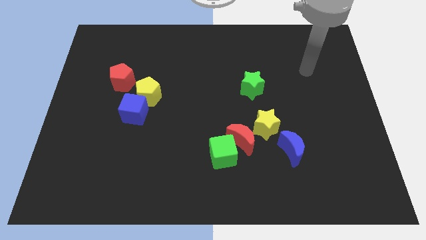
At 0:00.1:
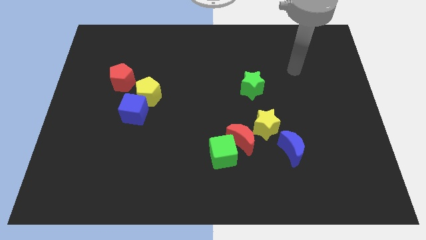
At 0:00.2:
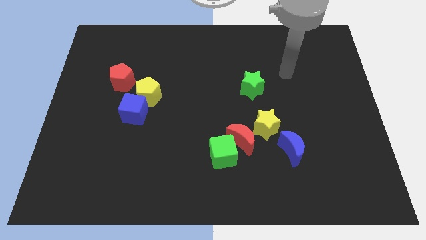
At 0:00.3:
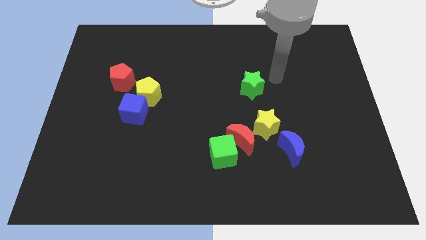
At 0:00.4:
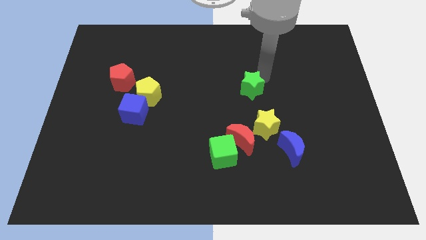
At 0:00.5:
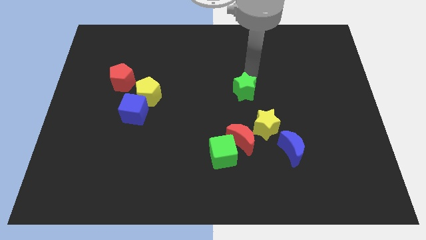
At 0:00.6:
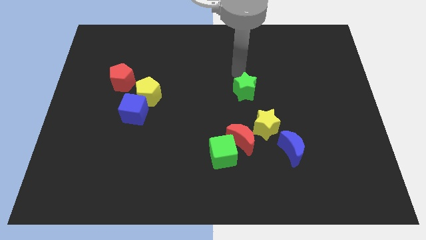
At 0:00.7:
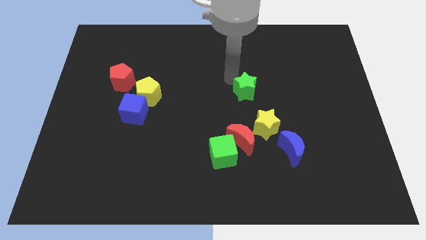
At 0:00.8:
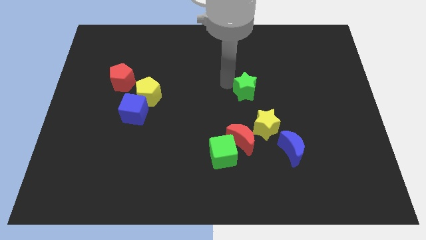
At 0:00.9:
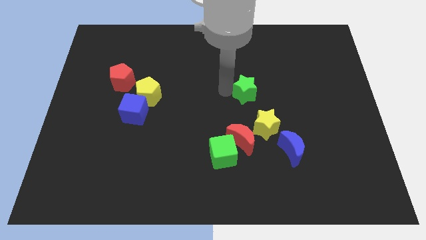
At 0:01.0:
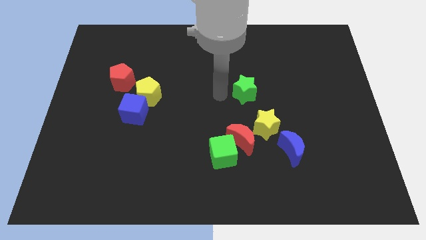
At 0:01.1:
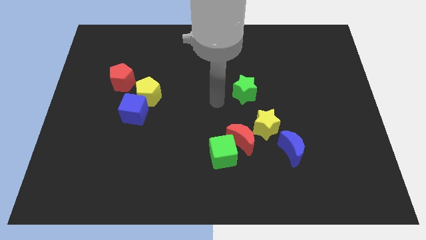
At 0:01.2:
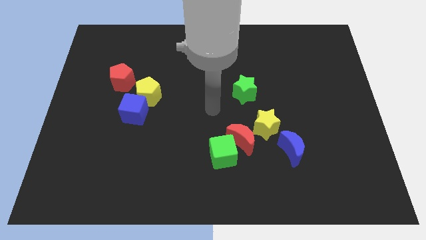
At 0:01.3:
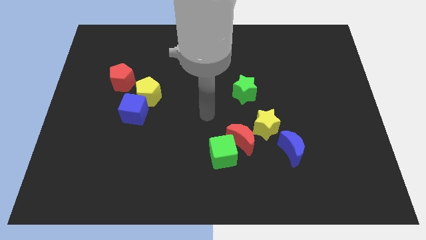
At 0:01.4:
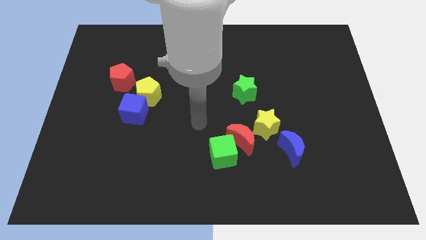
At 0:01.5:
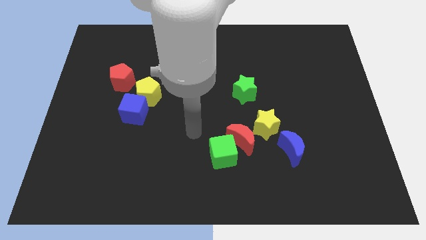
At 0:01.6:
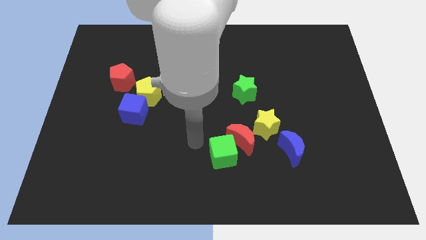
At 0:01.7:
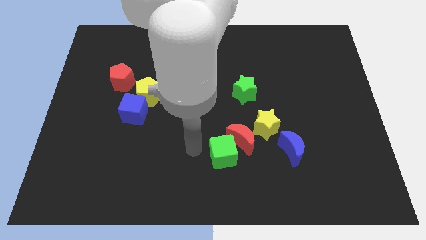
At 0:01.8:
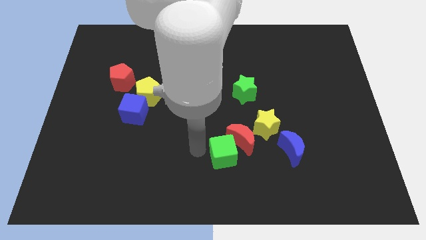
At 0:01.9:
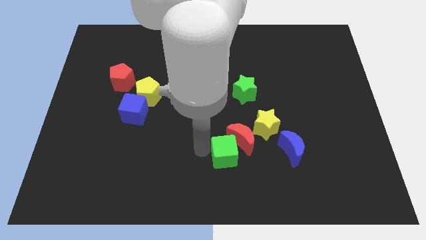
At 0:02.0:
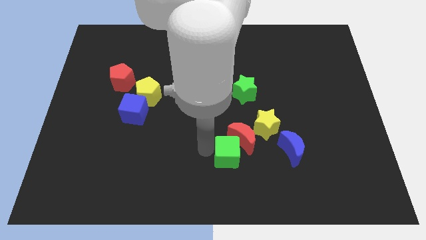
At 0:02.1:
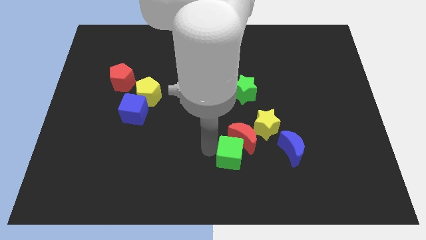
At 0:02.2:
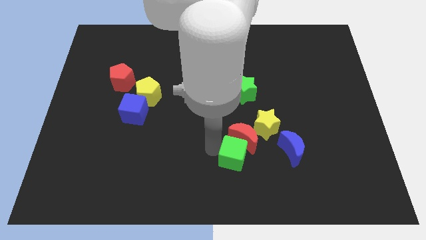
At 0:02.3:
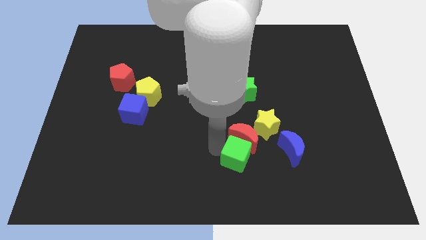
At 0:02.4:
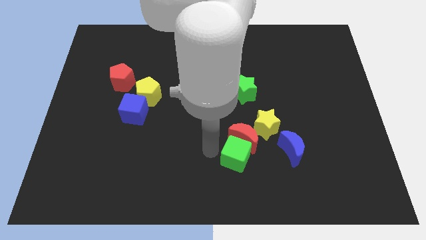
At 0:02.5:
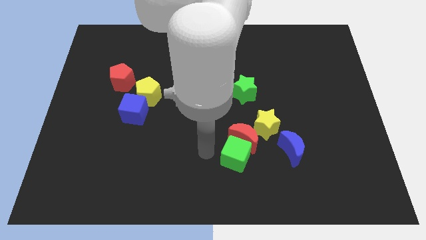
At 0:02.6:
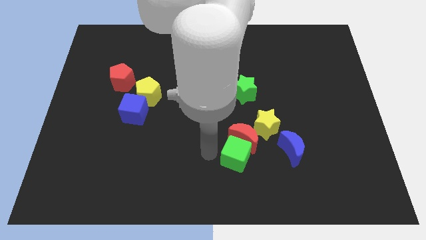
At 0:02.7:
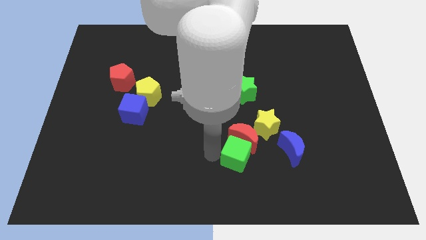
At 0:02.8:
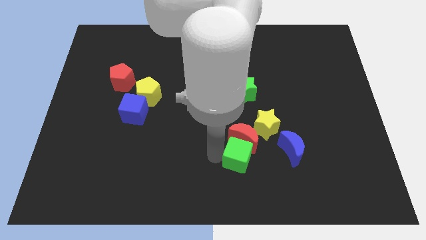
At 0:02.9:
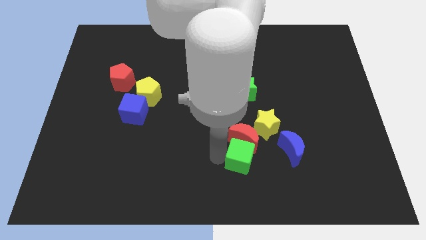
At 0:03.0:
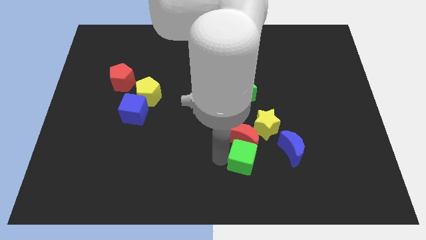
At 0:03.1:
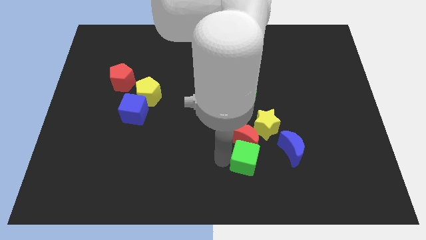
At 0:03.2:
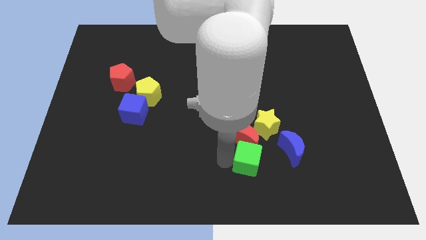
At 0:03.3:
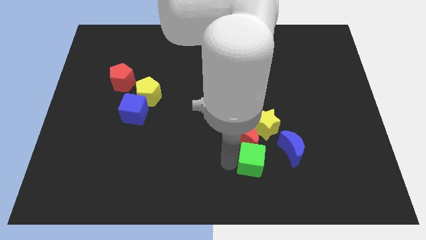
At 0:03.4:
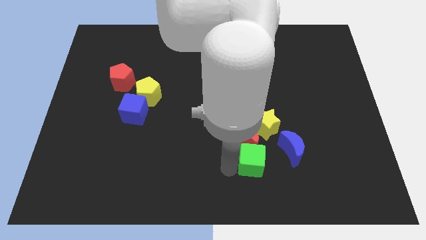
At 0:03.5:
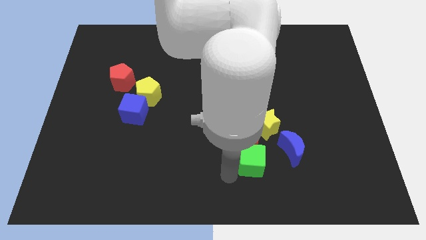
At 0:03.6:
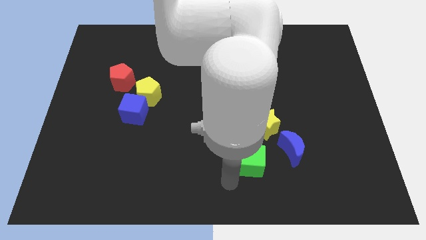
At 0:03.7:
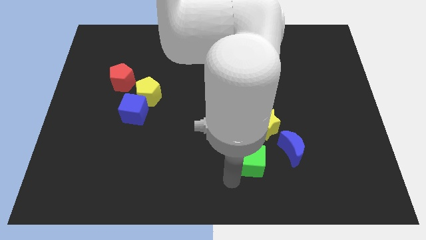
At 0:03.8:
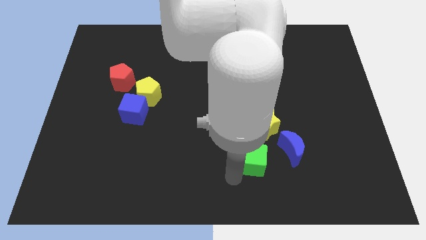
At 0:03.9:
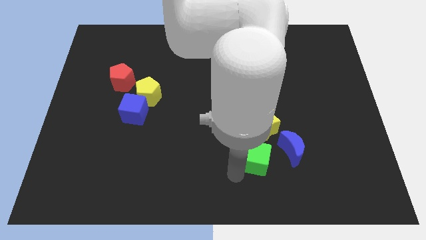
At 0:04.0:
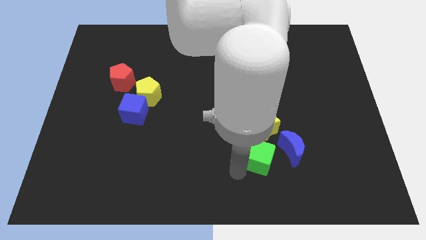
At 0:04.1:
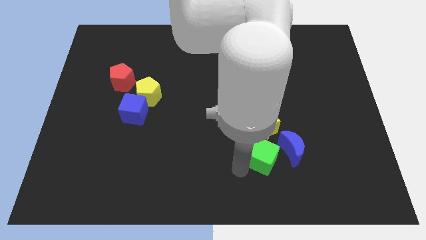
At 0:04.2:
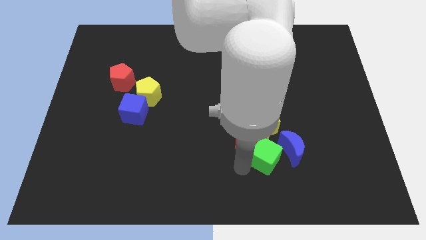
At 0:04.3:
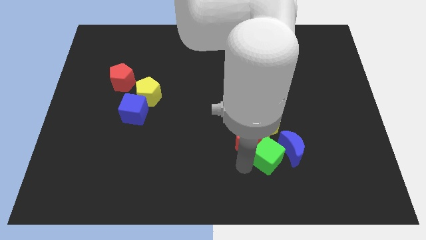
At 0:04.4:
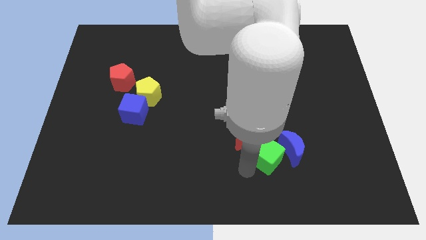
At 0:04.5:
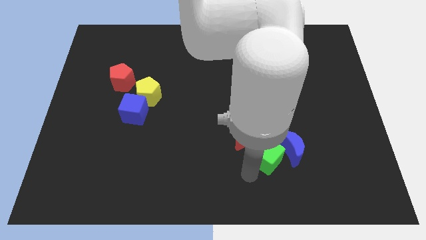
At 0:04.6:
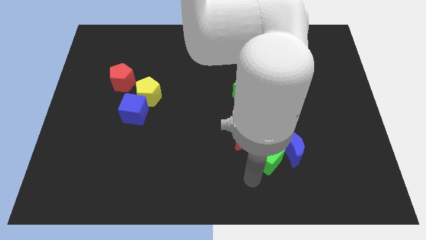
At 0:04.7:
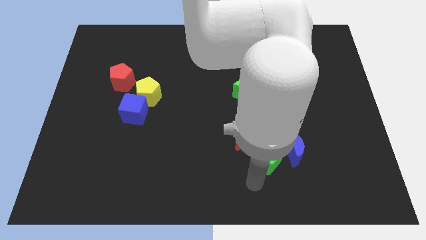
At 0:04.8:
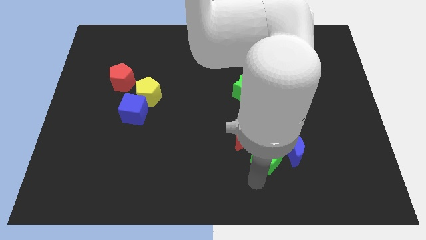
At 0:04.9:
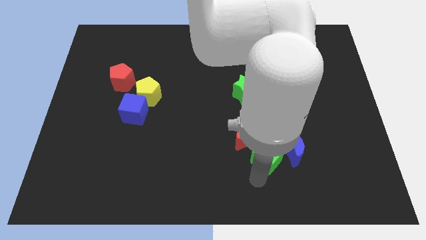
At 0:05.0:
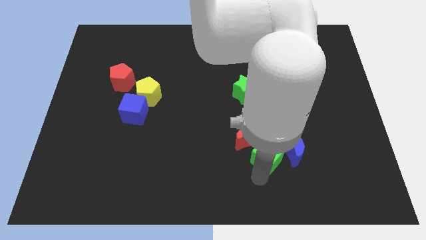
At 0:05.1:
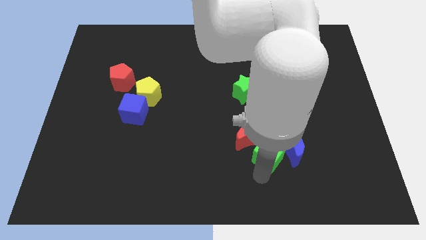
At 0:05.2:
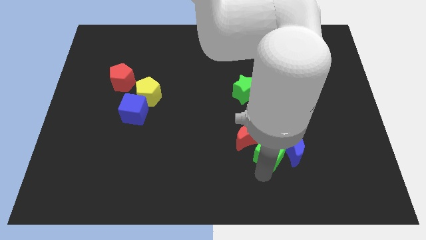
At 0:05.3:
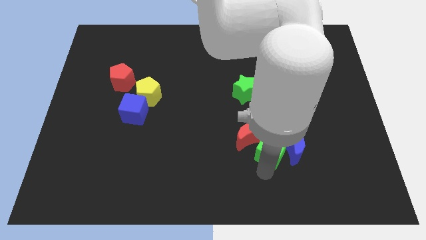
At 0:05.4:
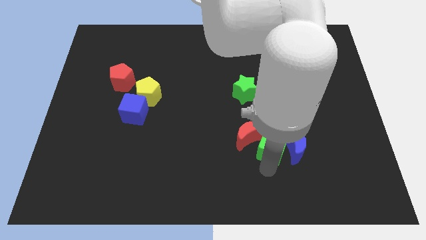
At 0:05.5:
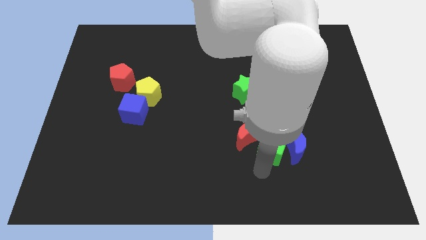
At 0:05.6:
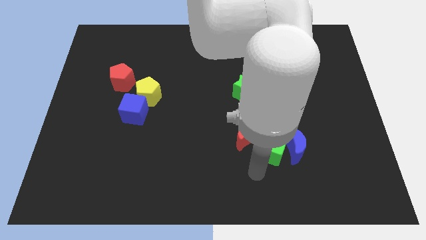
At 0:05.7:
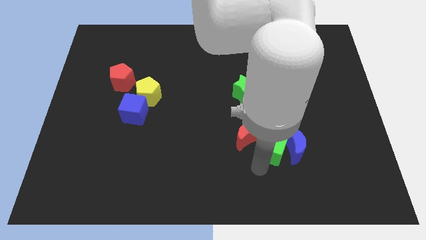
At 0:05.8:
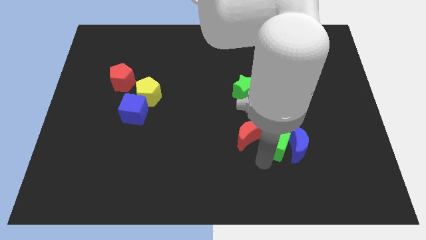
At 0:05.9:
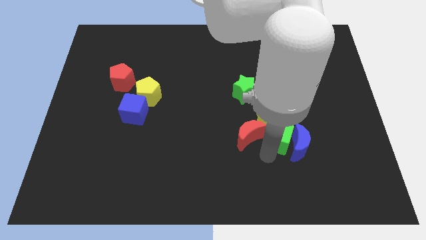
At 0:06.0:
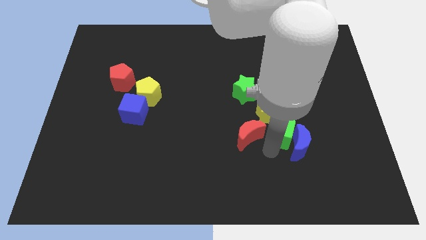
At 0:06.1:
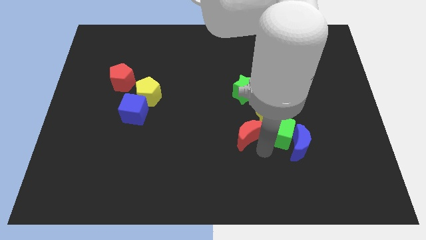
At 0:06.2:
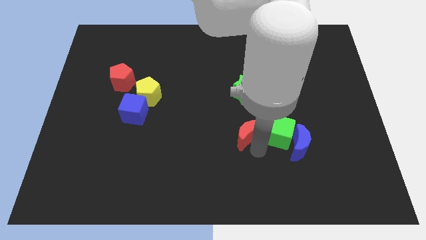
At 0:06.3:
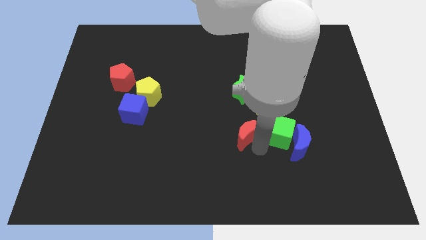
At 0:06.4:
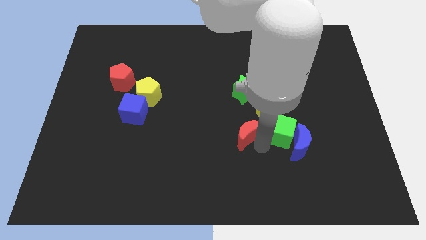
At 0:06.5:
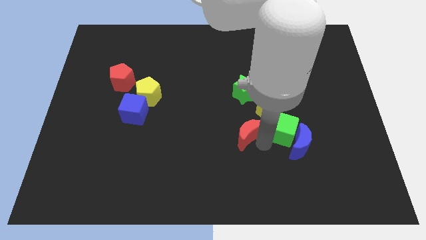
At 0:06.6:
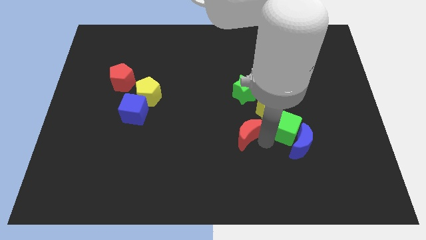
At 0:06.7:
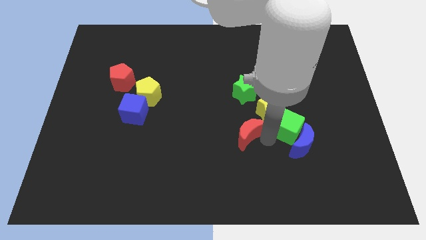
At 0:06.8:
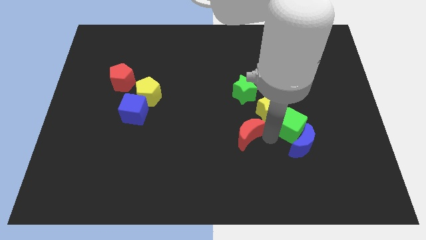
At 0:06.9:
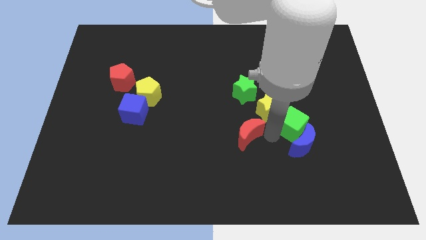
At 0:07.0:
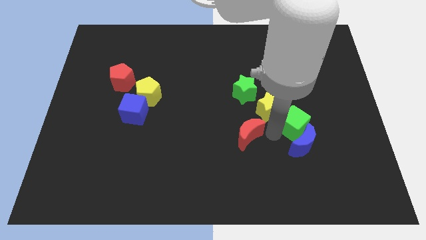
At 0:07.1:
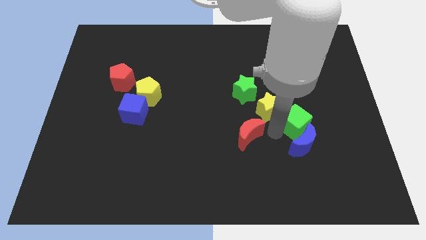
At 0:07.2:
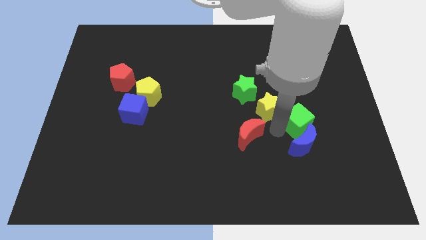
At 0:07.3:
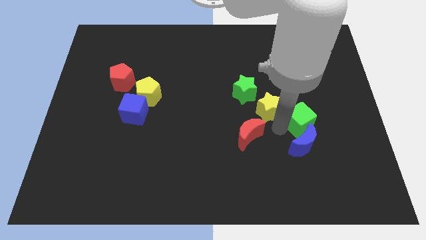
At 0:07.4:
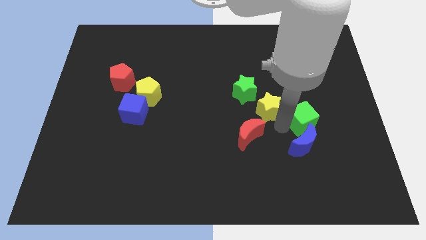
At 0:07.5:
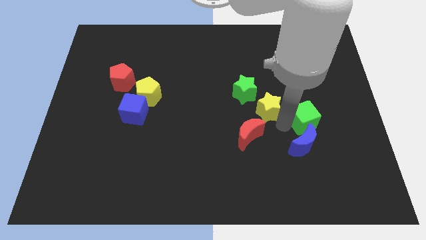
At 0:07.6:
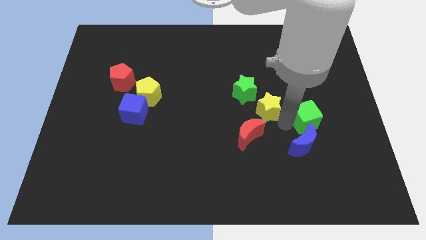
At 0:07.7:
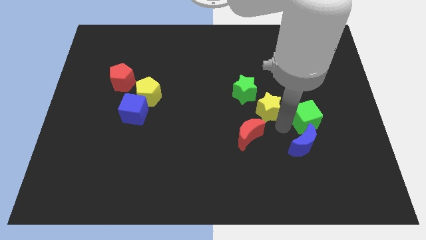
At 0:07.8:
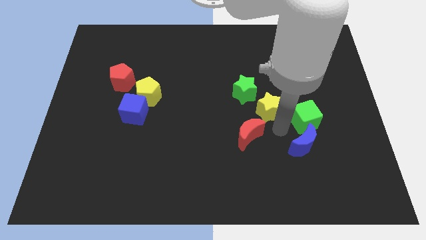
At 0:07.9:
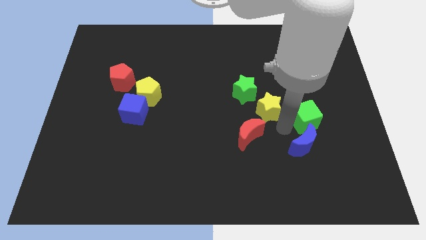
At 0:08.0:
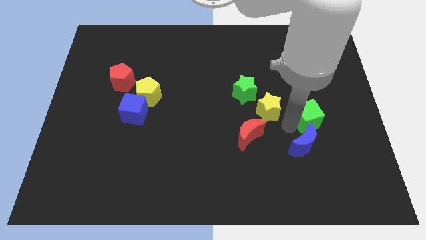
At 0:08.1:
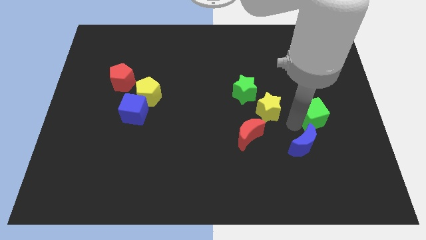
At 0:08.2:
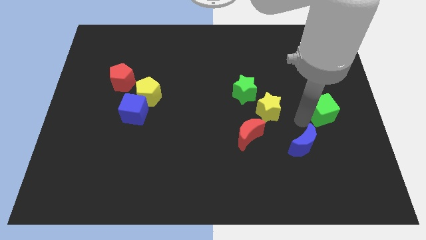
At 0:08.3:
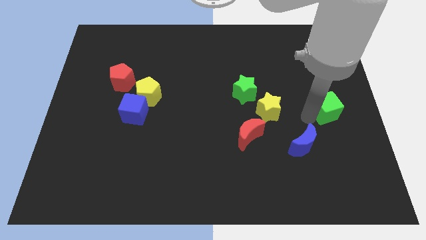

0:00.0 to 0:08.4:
move the green cube to the right side
